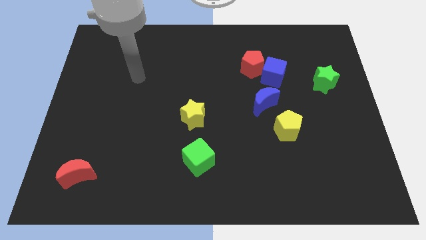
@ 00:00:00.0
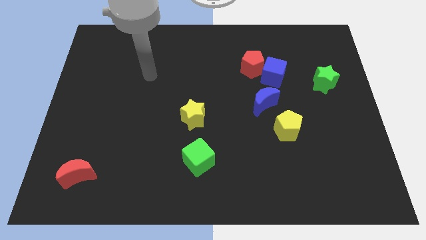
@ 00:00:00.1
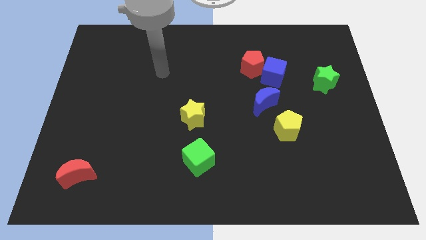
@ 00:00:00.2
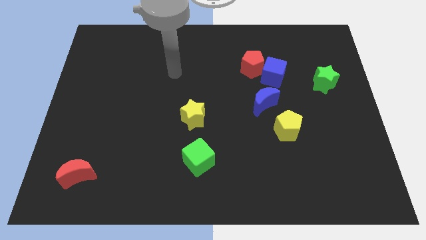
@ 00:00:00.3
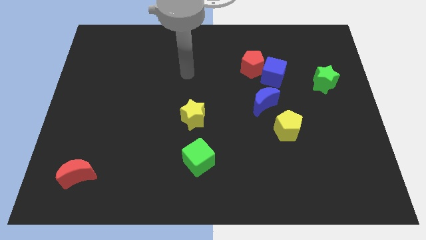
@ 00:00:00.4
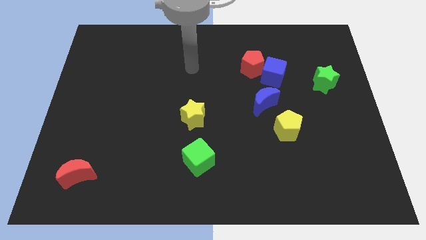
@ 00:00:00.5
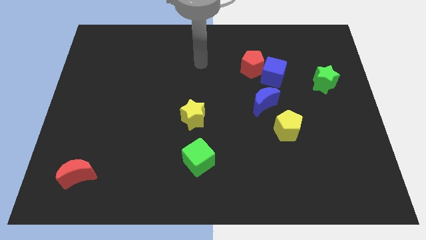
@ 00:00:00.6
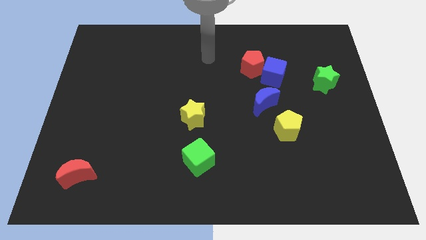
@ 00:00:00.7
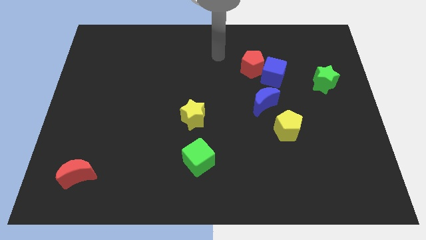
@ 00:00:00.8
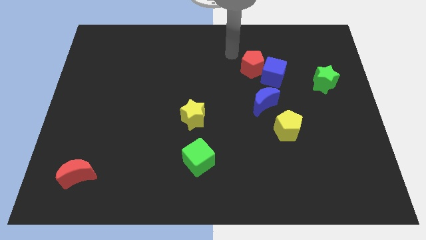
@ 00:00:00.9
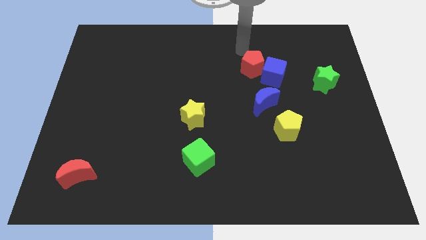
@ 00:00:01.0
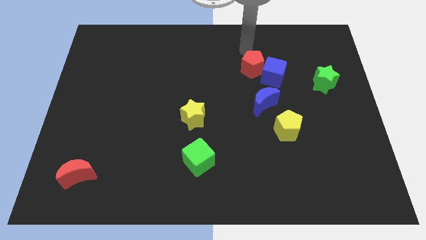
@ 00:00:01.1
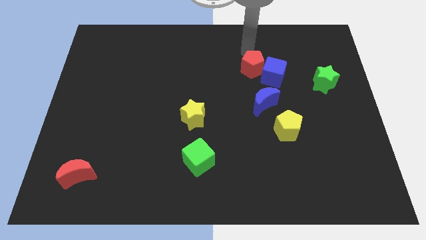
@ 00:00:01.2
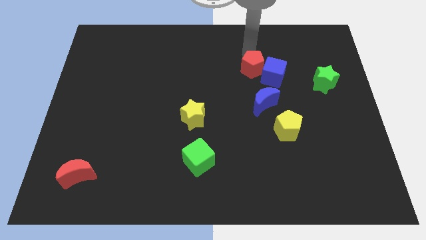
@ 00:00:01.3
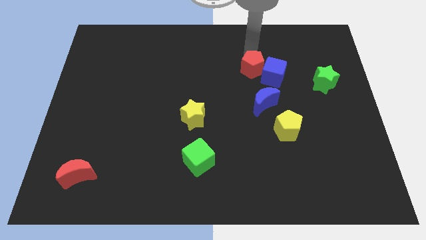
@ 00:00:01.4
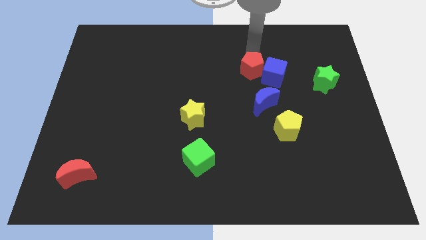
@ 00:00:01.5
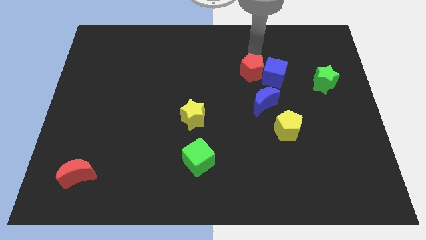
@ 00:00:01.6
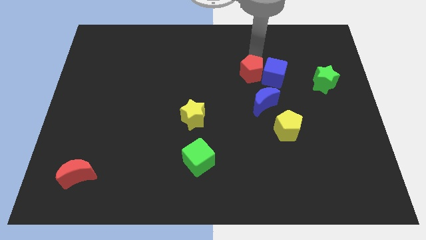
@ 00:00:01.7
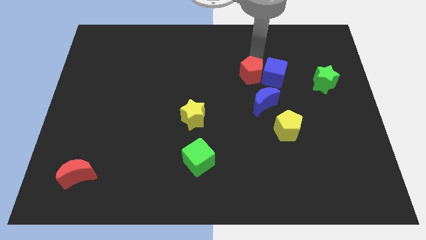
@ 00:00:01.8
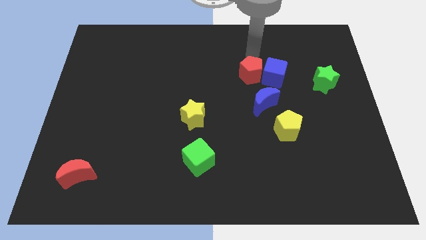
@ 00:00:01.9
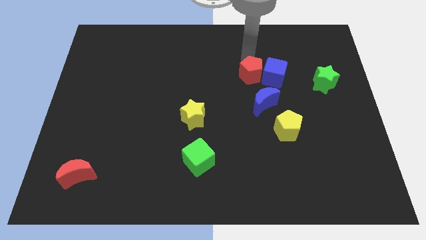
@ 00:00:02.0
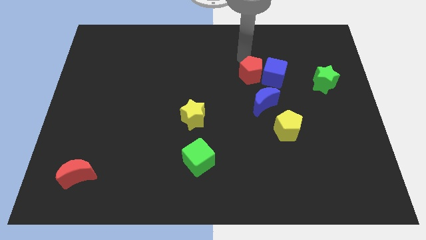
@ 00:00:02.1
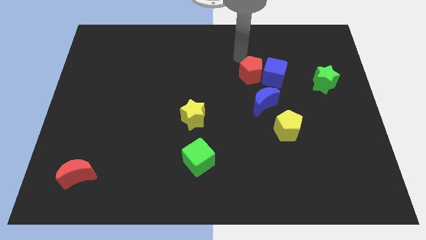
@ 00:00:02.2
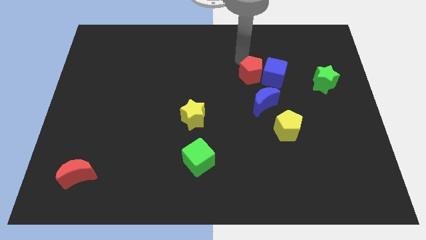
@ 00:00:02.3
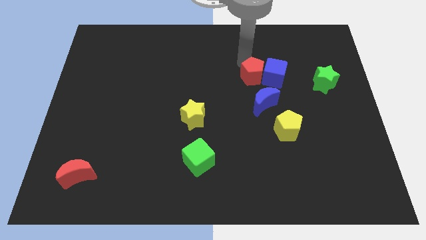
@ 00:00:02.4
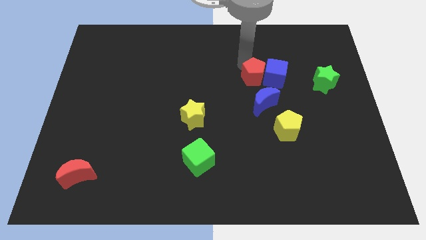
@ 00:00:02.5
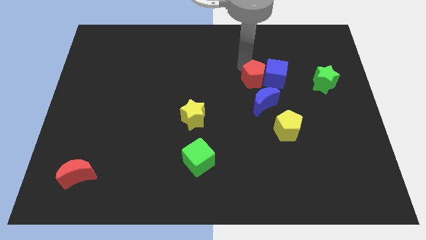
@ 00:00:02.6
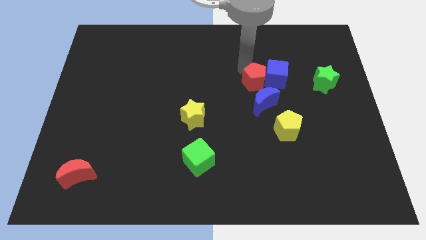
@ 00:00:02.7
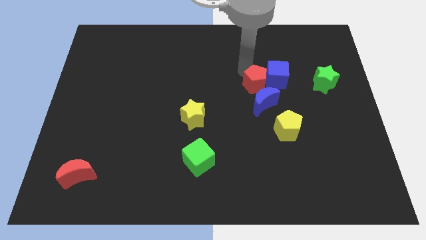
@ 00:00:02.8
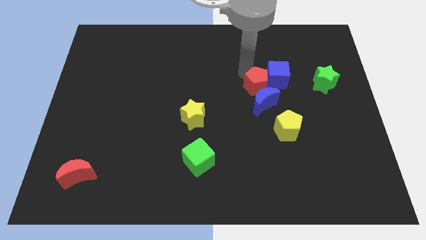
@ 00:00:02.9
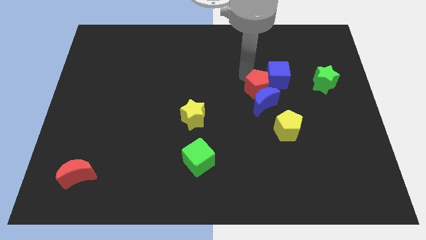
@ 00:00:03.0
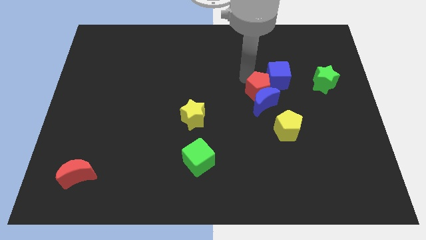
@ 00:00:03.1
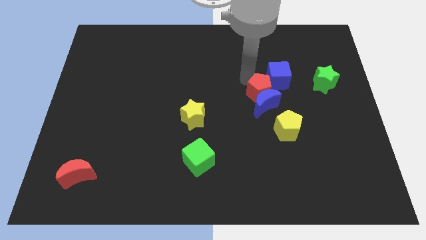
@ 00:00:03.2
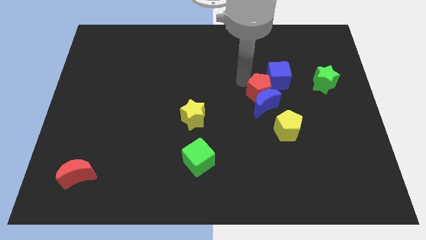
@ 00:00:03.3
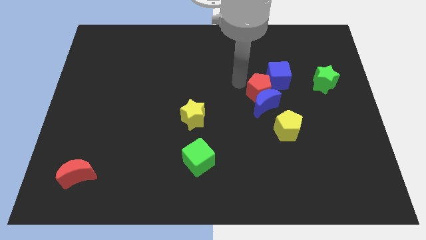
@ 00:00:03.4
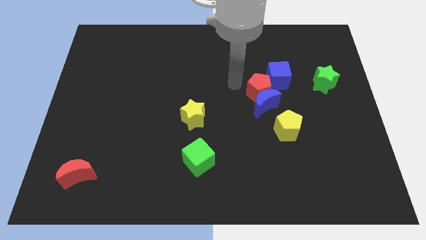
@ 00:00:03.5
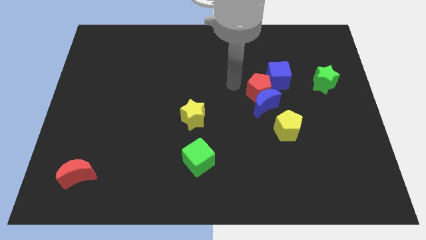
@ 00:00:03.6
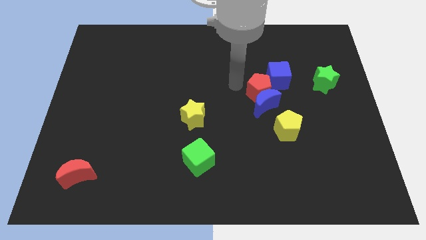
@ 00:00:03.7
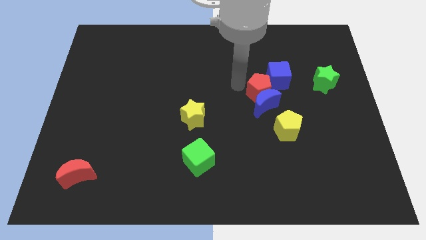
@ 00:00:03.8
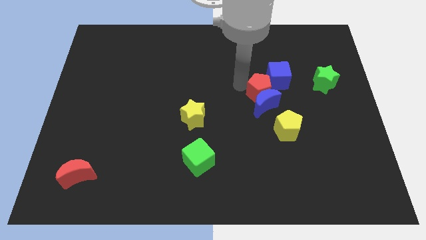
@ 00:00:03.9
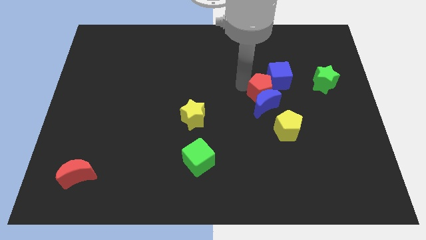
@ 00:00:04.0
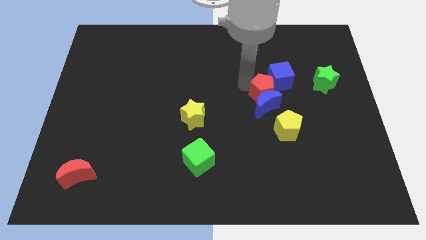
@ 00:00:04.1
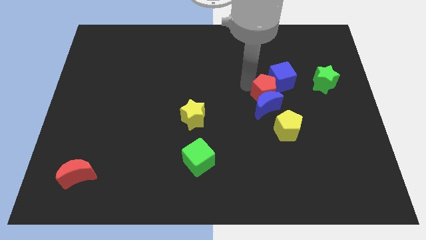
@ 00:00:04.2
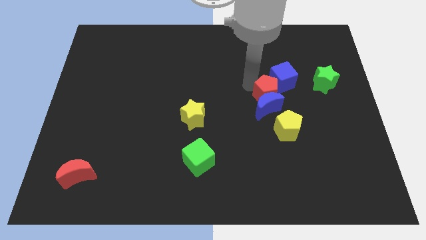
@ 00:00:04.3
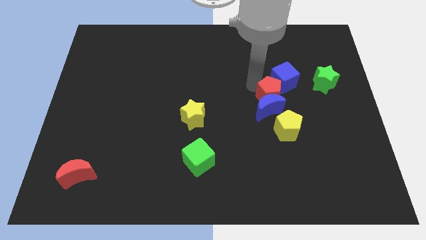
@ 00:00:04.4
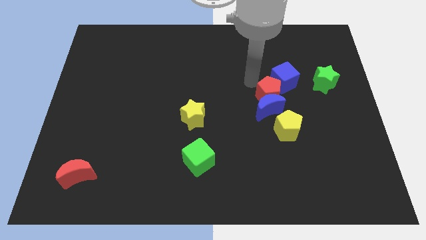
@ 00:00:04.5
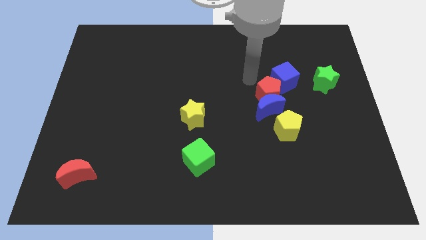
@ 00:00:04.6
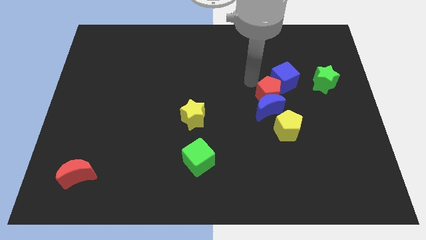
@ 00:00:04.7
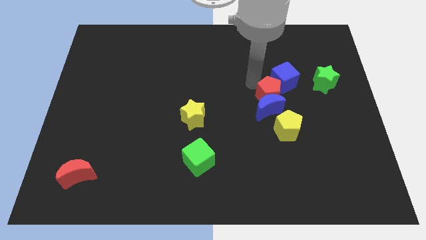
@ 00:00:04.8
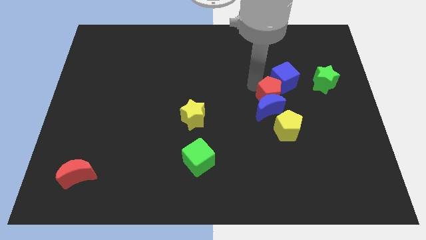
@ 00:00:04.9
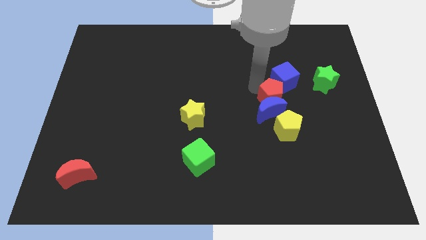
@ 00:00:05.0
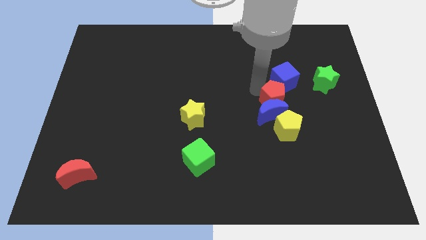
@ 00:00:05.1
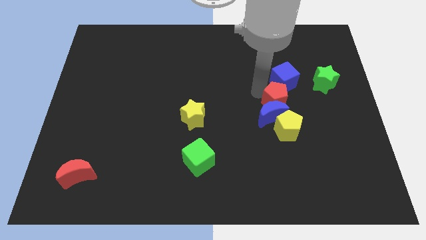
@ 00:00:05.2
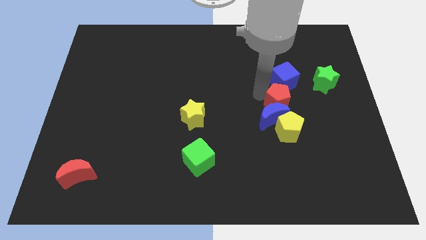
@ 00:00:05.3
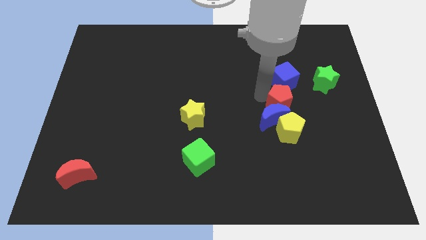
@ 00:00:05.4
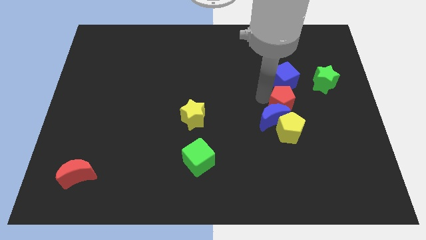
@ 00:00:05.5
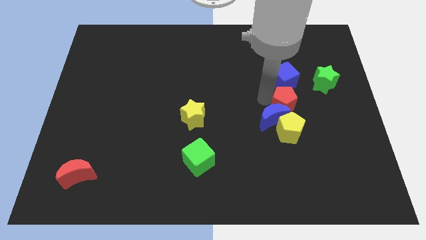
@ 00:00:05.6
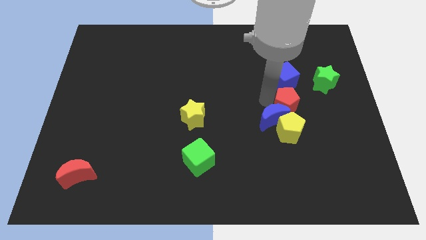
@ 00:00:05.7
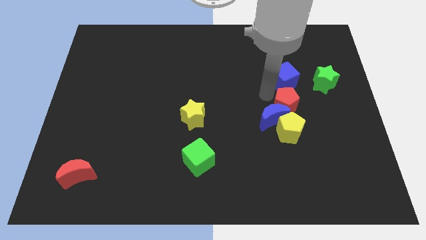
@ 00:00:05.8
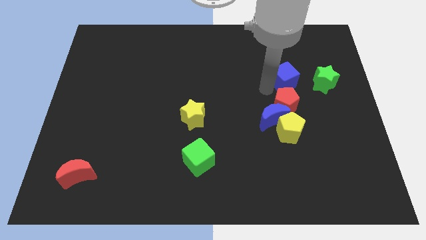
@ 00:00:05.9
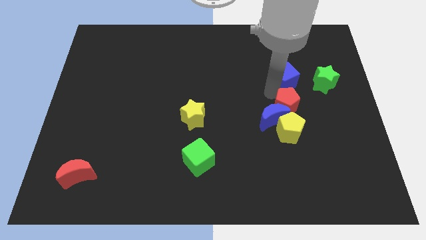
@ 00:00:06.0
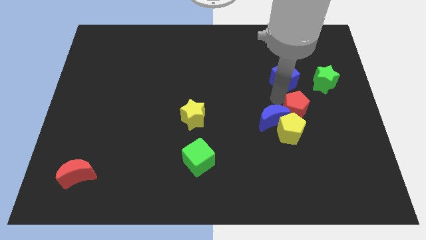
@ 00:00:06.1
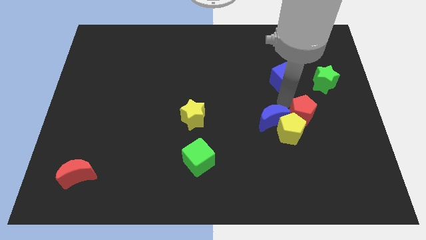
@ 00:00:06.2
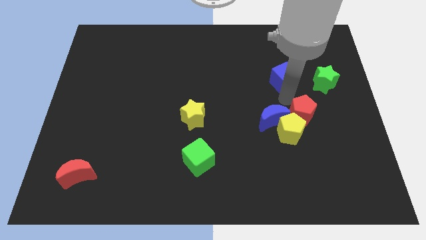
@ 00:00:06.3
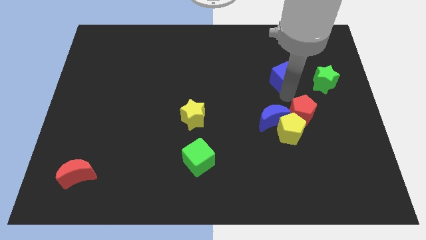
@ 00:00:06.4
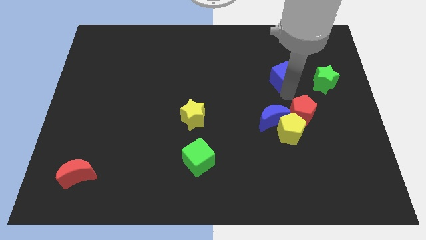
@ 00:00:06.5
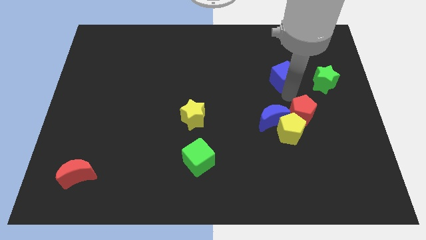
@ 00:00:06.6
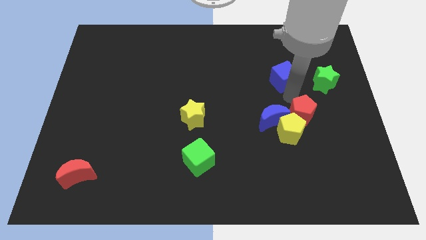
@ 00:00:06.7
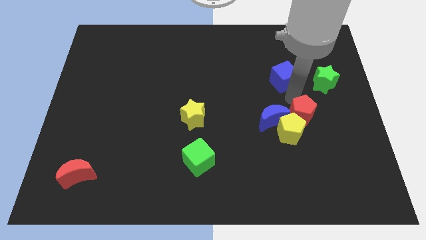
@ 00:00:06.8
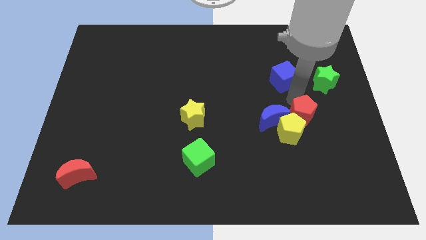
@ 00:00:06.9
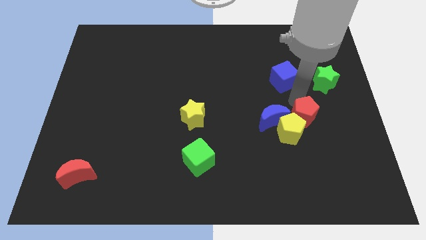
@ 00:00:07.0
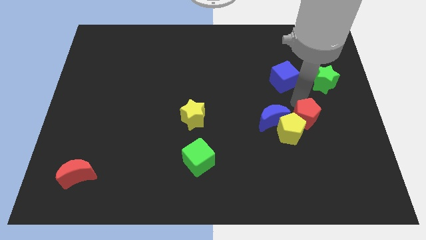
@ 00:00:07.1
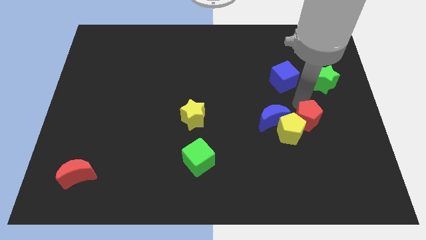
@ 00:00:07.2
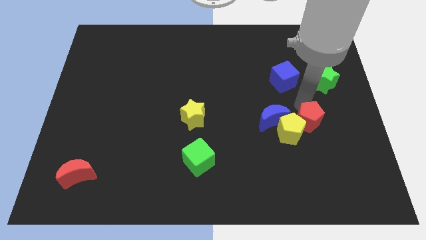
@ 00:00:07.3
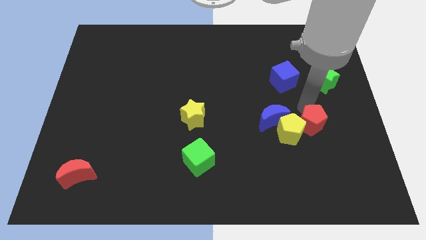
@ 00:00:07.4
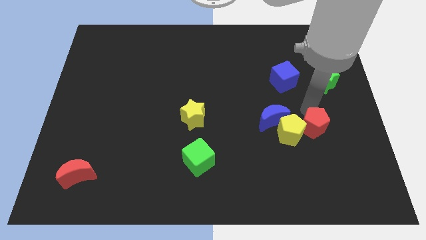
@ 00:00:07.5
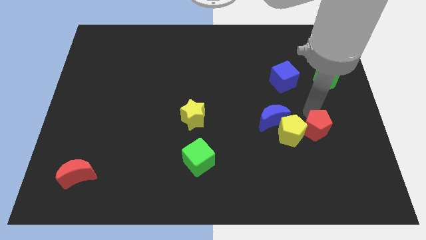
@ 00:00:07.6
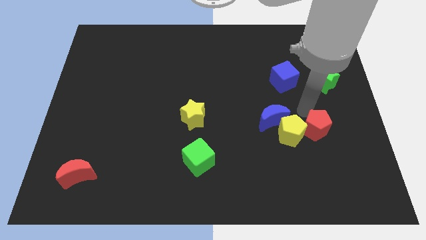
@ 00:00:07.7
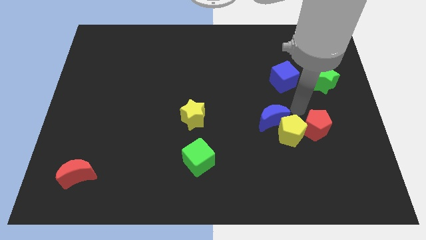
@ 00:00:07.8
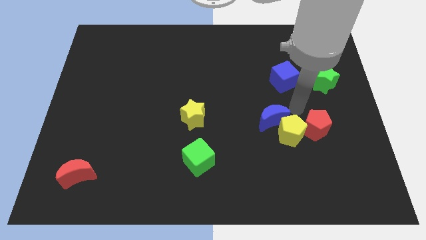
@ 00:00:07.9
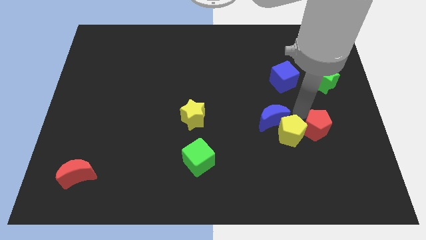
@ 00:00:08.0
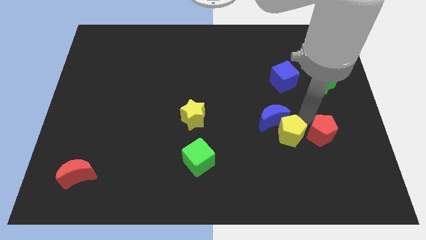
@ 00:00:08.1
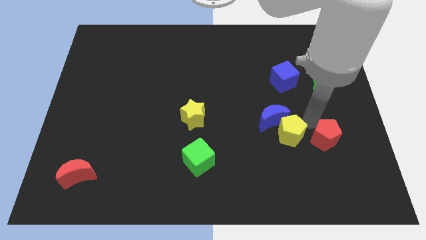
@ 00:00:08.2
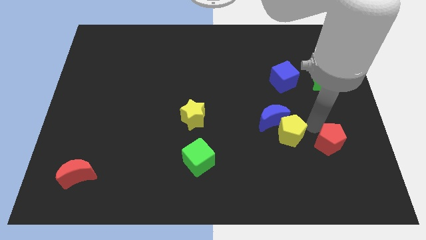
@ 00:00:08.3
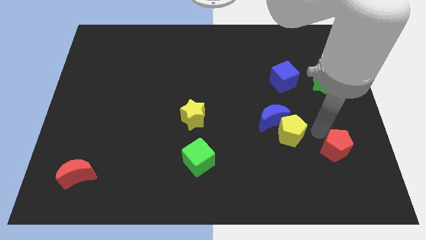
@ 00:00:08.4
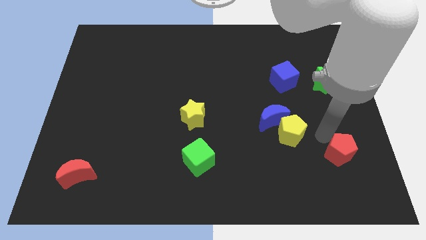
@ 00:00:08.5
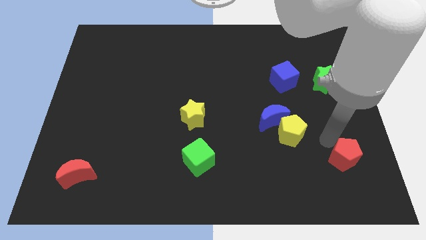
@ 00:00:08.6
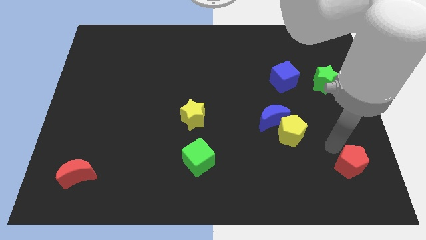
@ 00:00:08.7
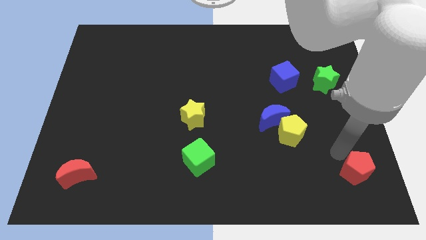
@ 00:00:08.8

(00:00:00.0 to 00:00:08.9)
push the red pentagon to the bottom right
